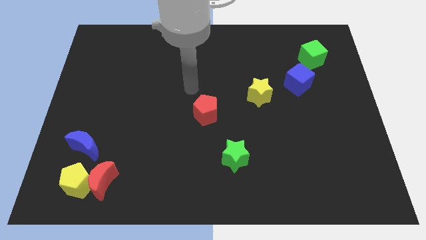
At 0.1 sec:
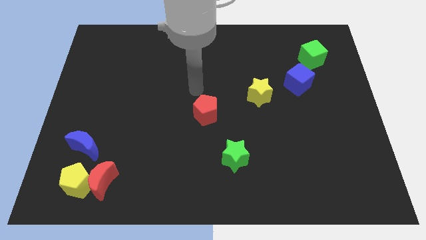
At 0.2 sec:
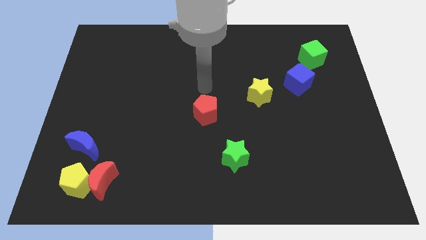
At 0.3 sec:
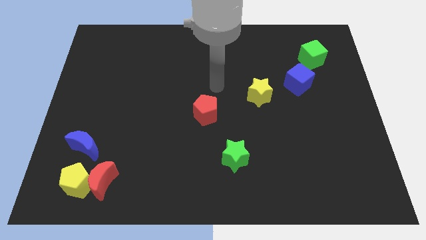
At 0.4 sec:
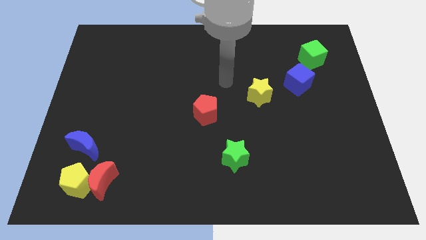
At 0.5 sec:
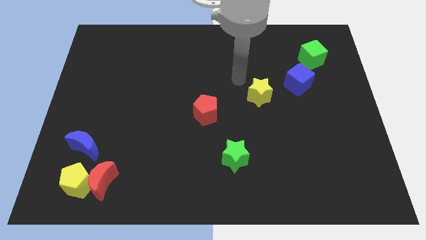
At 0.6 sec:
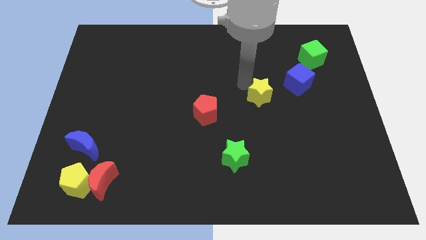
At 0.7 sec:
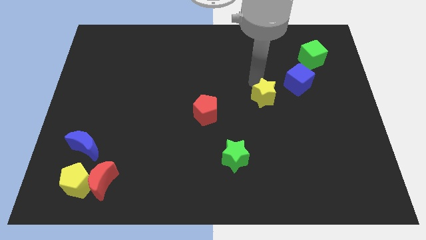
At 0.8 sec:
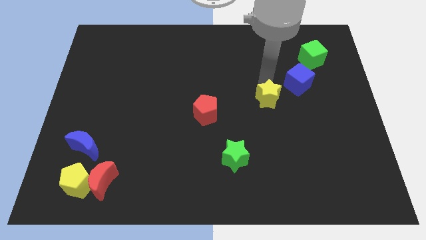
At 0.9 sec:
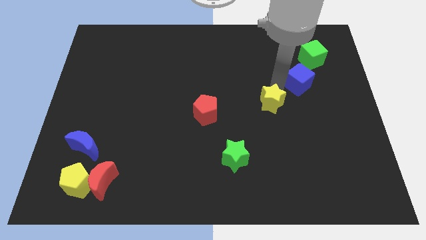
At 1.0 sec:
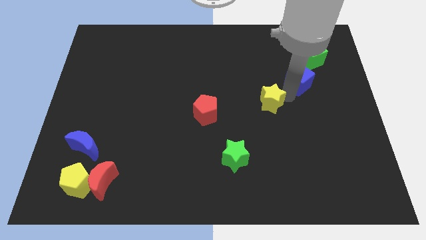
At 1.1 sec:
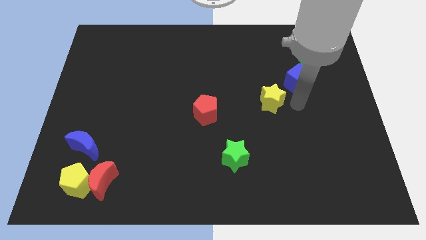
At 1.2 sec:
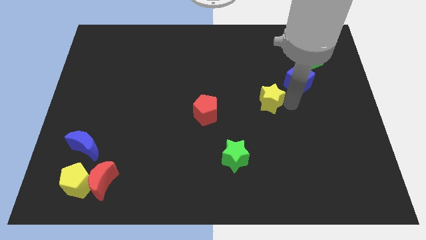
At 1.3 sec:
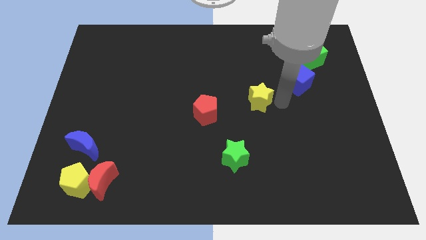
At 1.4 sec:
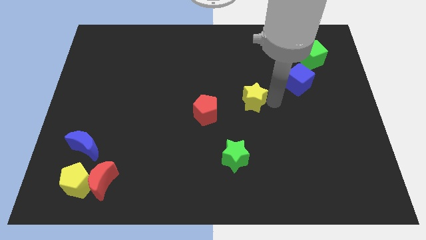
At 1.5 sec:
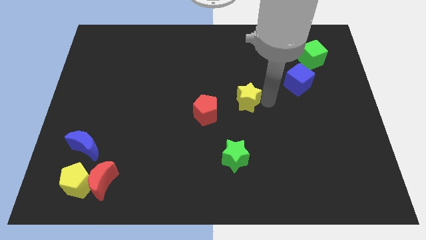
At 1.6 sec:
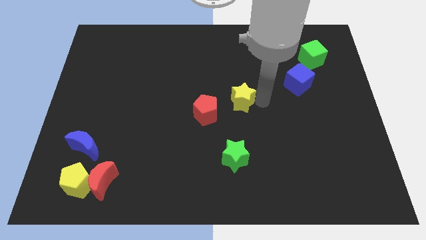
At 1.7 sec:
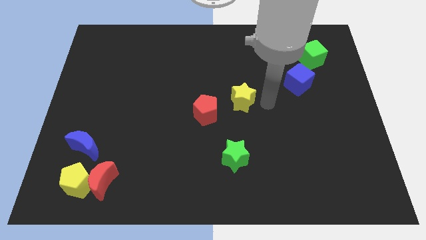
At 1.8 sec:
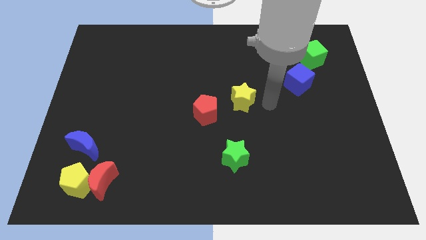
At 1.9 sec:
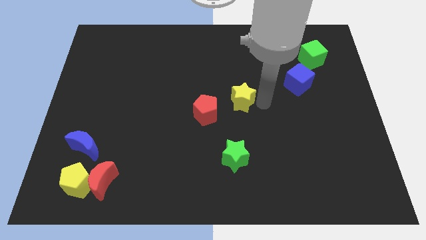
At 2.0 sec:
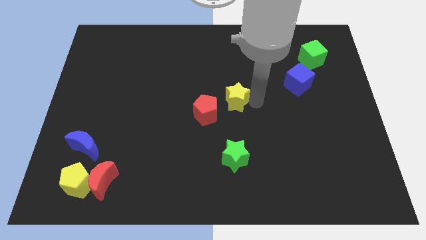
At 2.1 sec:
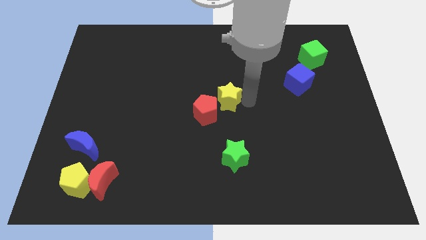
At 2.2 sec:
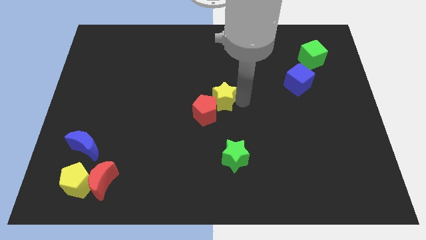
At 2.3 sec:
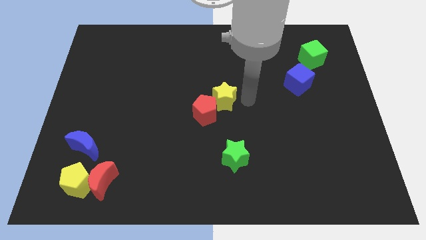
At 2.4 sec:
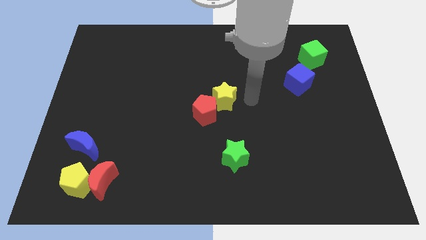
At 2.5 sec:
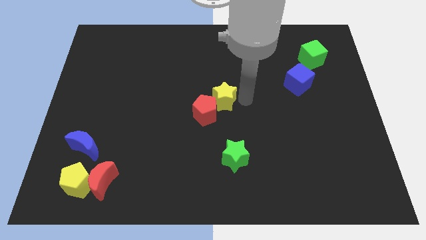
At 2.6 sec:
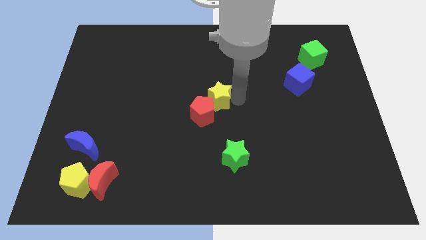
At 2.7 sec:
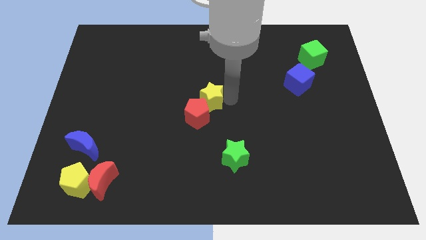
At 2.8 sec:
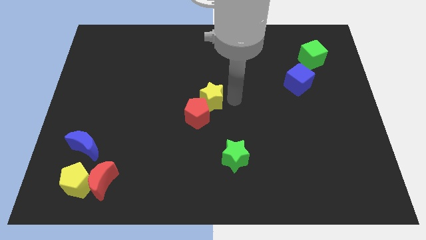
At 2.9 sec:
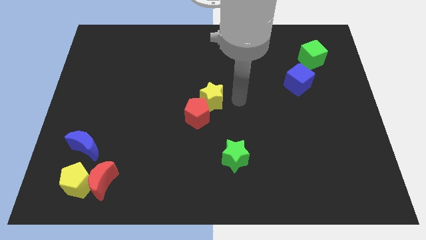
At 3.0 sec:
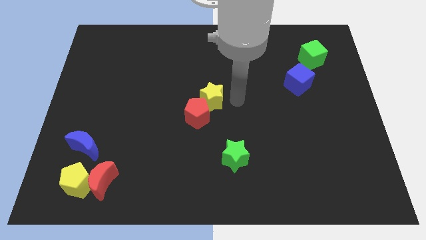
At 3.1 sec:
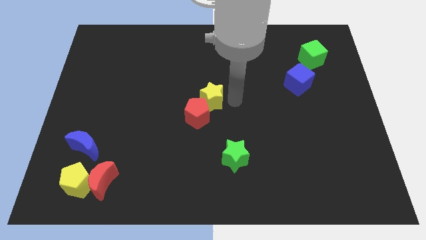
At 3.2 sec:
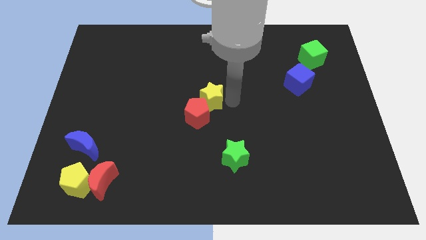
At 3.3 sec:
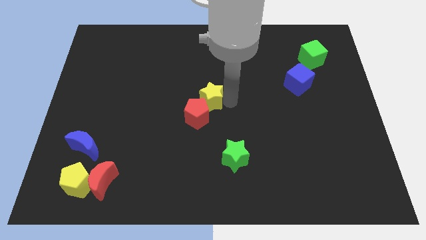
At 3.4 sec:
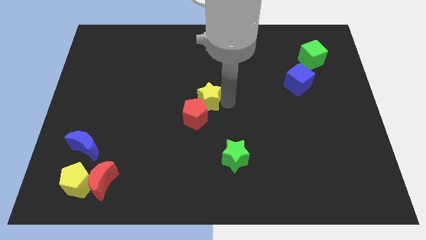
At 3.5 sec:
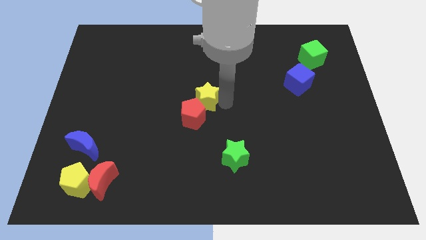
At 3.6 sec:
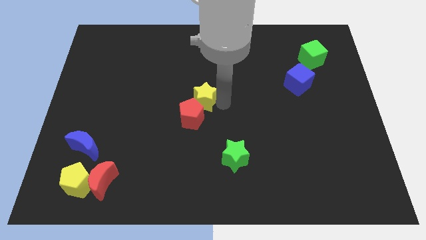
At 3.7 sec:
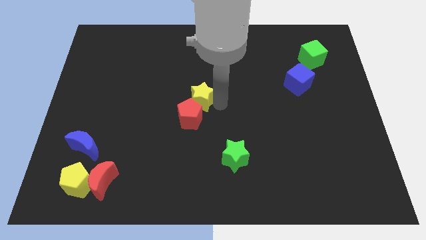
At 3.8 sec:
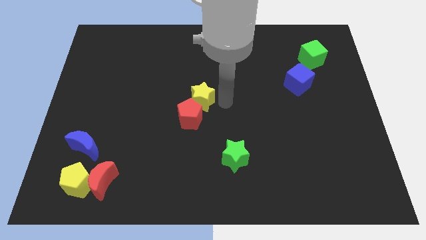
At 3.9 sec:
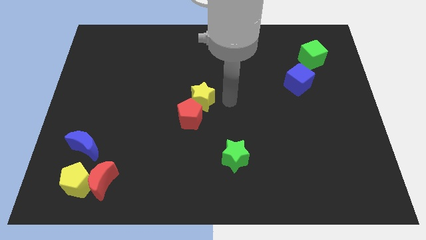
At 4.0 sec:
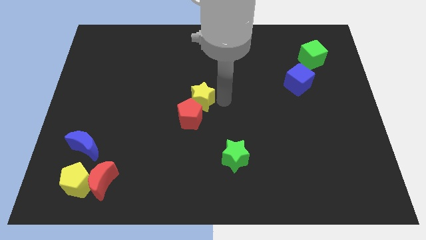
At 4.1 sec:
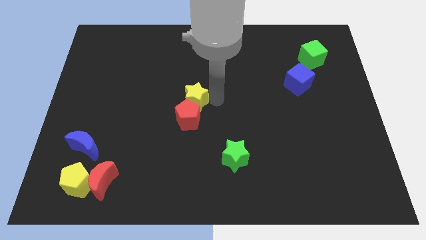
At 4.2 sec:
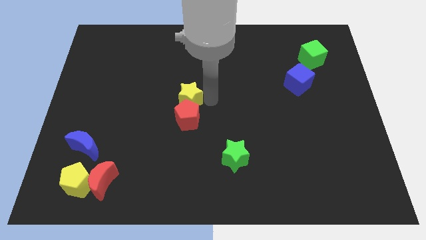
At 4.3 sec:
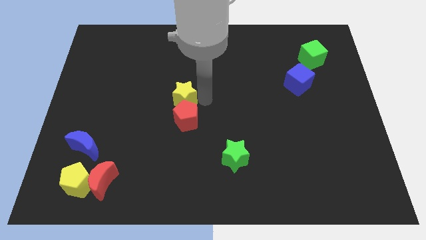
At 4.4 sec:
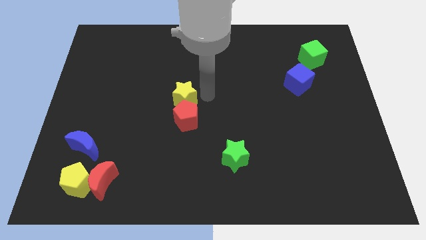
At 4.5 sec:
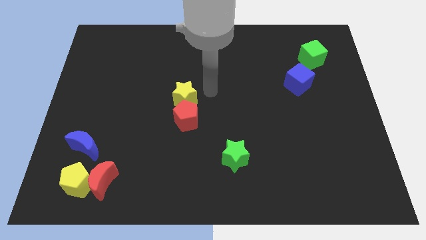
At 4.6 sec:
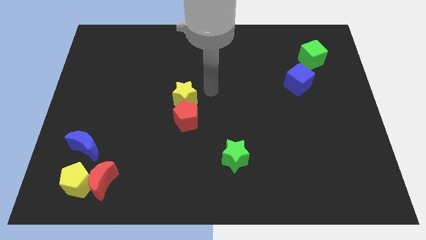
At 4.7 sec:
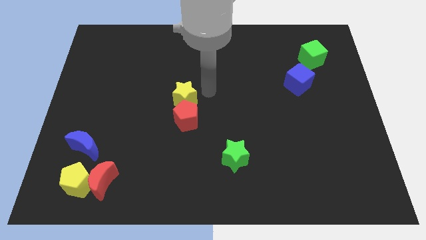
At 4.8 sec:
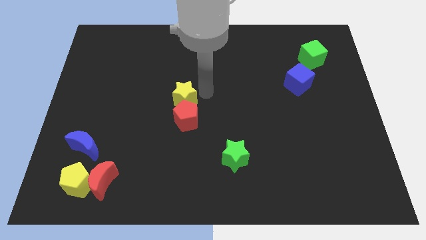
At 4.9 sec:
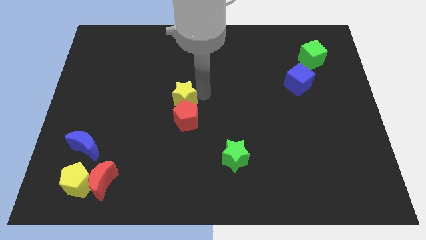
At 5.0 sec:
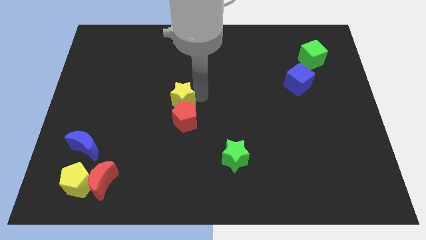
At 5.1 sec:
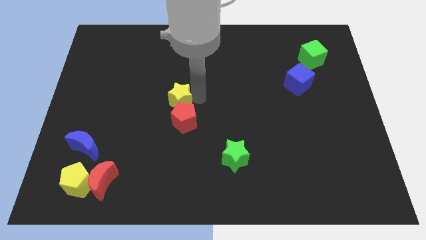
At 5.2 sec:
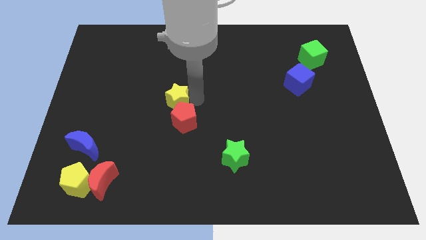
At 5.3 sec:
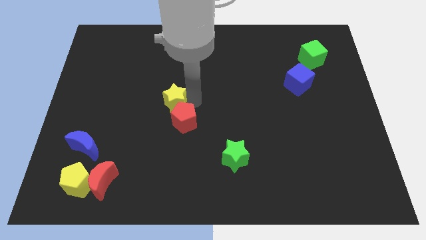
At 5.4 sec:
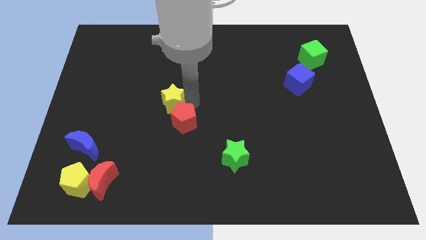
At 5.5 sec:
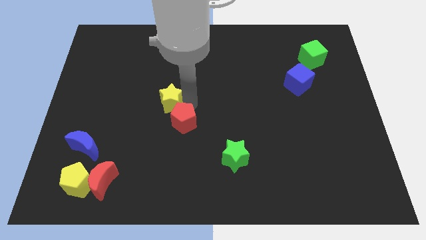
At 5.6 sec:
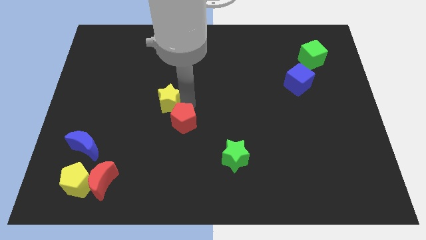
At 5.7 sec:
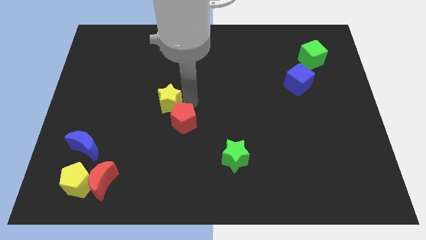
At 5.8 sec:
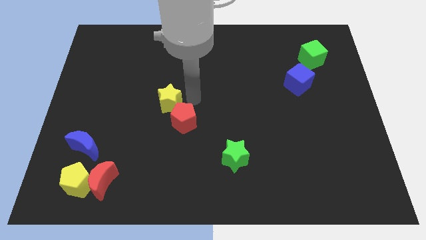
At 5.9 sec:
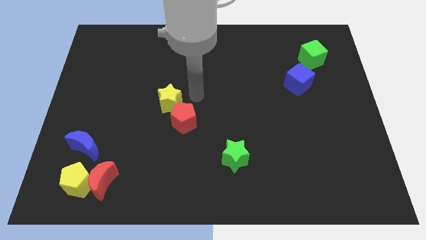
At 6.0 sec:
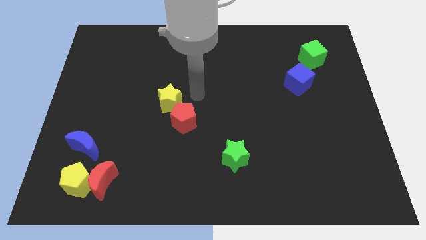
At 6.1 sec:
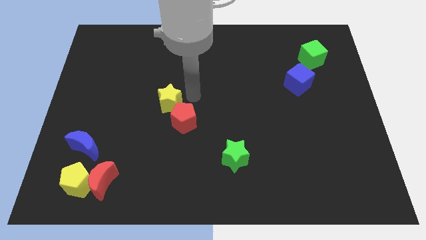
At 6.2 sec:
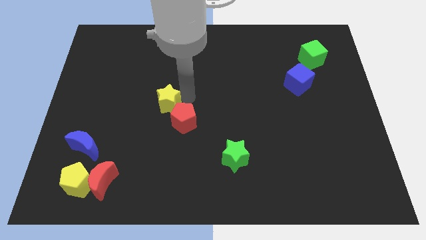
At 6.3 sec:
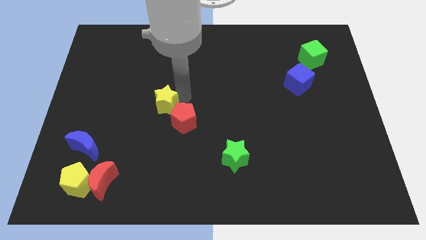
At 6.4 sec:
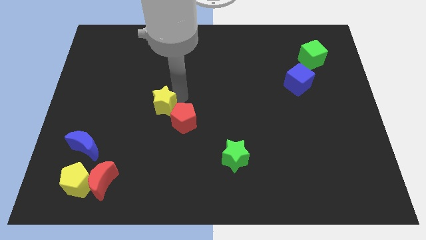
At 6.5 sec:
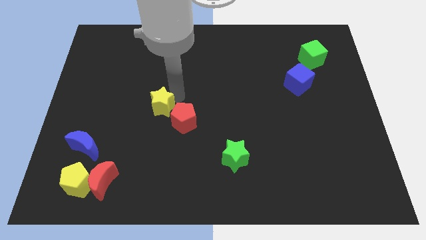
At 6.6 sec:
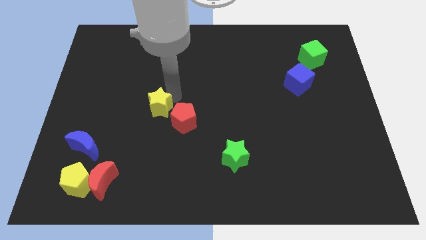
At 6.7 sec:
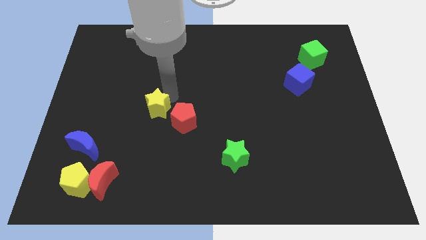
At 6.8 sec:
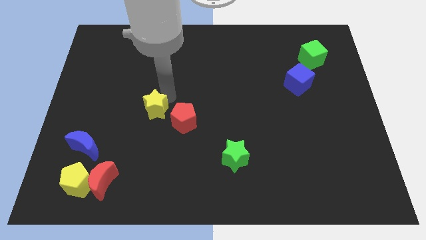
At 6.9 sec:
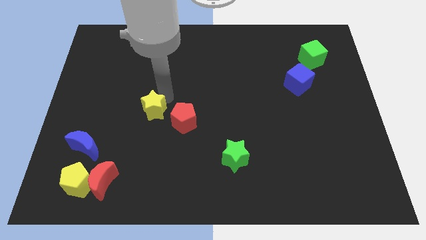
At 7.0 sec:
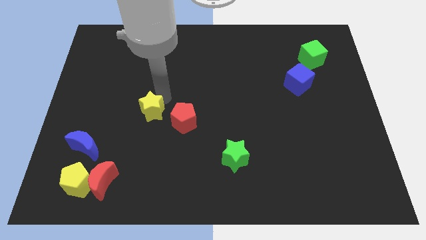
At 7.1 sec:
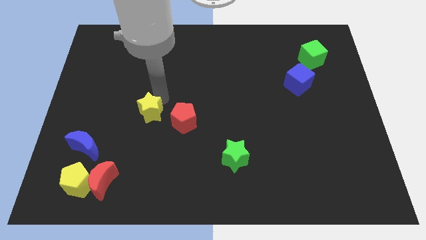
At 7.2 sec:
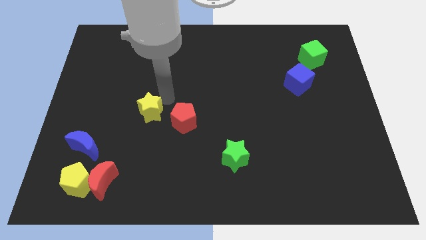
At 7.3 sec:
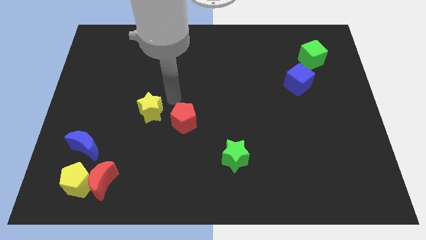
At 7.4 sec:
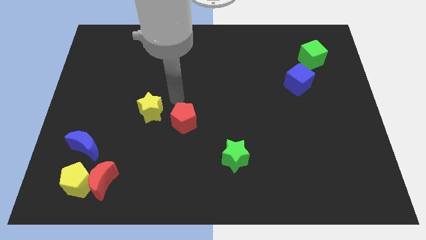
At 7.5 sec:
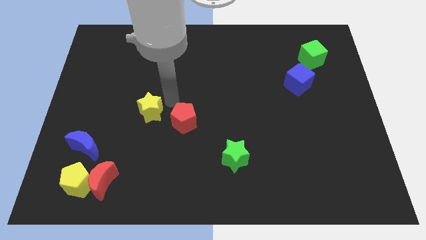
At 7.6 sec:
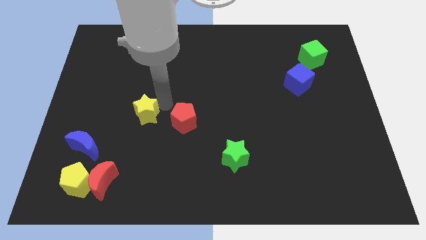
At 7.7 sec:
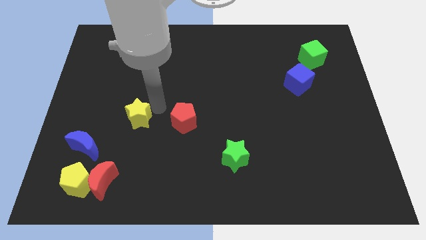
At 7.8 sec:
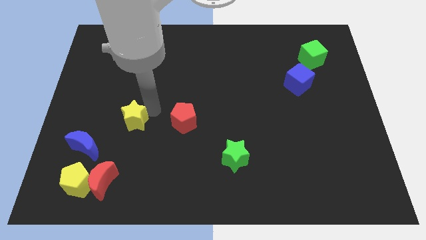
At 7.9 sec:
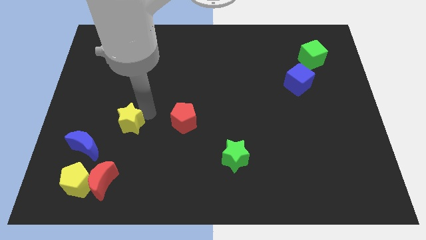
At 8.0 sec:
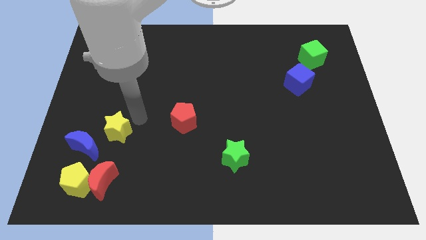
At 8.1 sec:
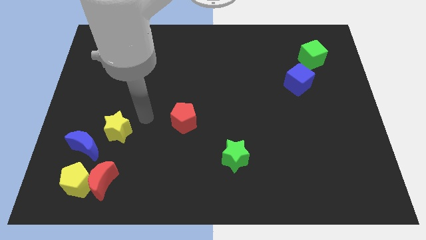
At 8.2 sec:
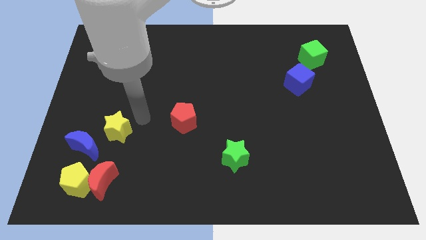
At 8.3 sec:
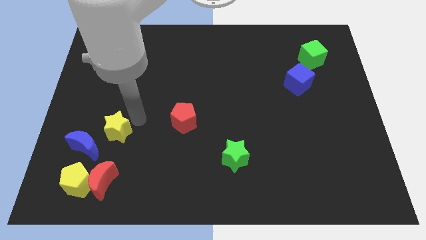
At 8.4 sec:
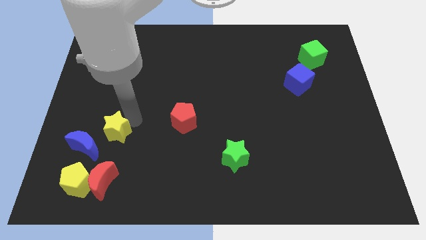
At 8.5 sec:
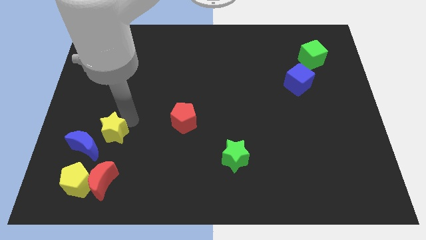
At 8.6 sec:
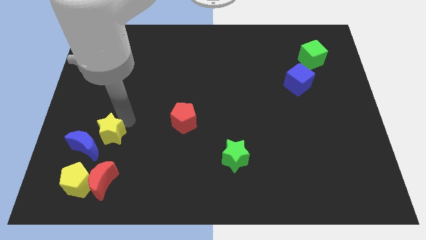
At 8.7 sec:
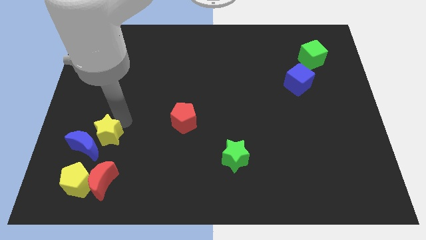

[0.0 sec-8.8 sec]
slide the yellow star to the blue moon
